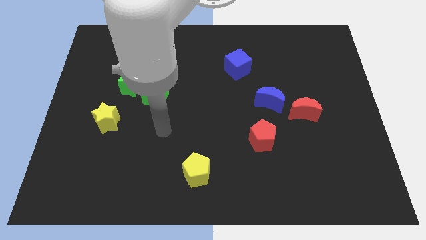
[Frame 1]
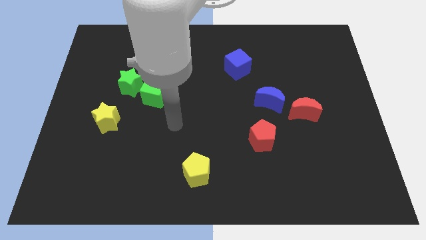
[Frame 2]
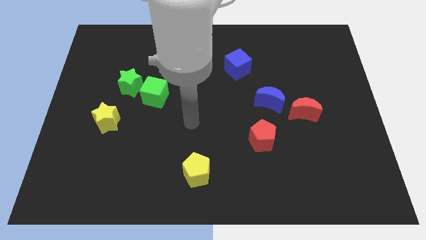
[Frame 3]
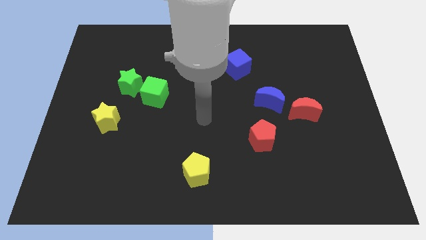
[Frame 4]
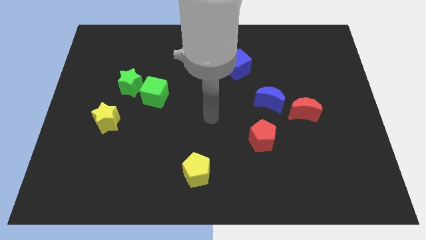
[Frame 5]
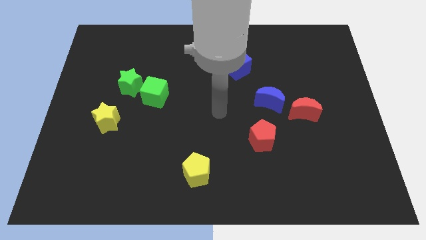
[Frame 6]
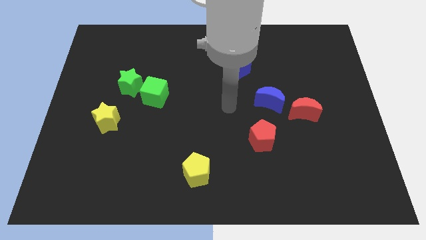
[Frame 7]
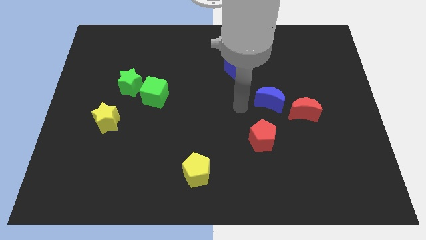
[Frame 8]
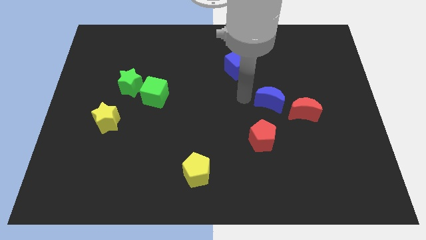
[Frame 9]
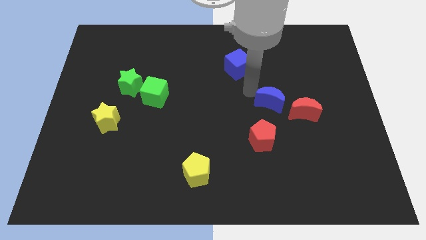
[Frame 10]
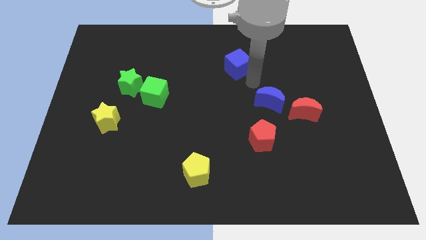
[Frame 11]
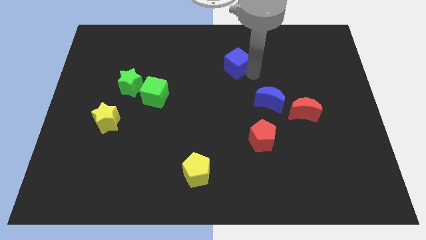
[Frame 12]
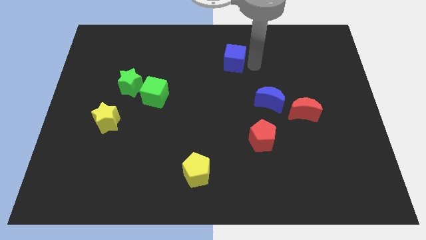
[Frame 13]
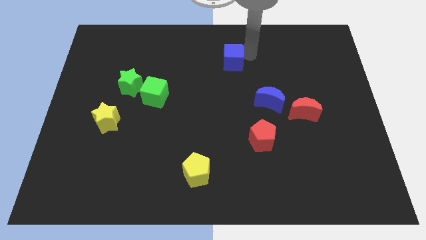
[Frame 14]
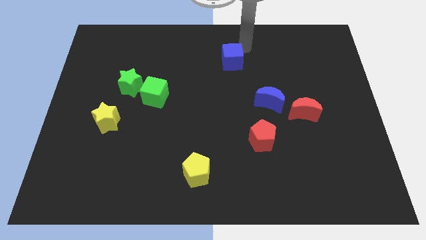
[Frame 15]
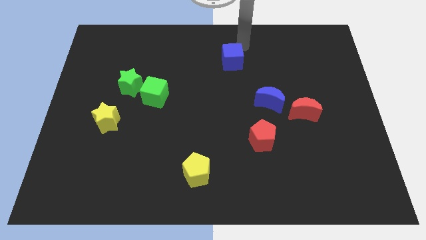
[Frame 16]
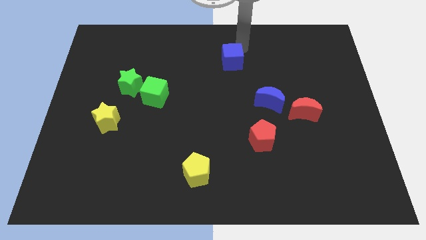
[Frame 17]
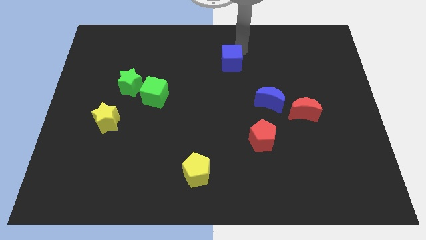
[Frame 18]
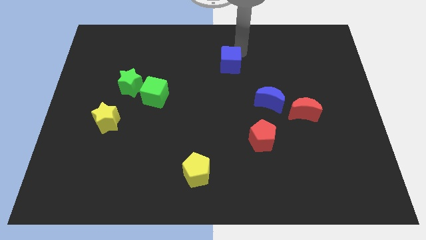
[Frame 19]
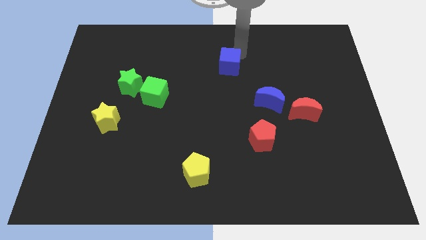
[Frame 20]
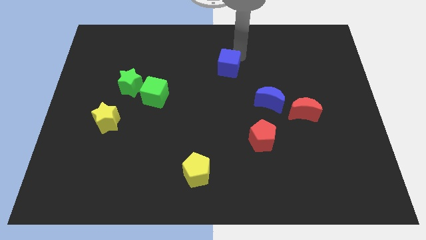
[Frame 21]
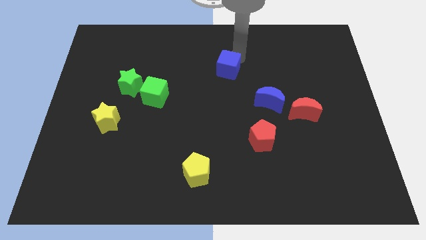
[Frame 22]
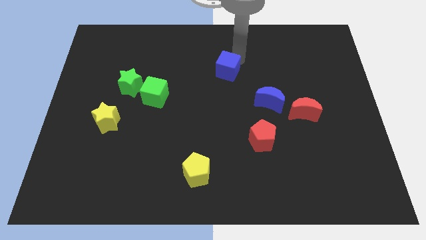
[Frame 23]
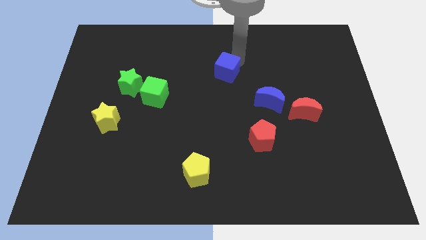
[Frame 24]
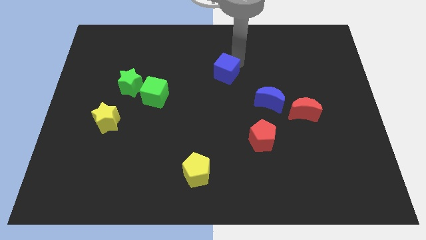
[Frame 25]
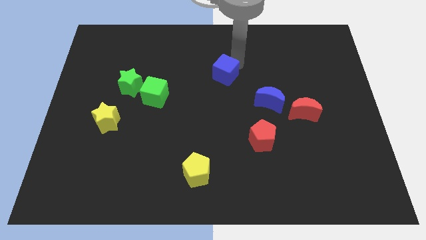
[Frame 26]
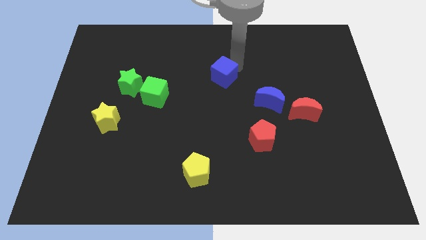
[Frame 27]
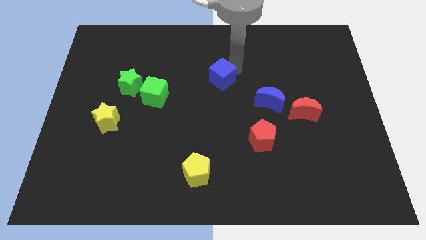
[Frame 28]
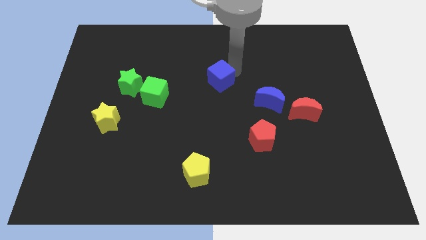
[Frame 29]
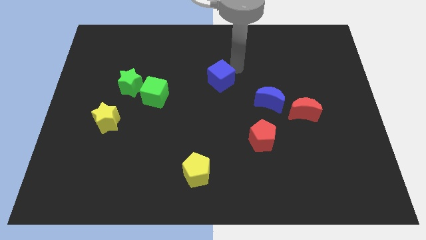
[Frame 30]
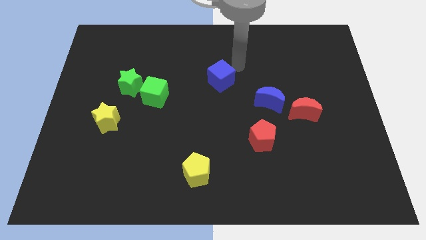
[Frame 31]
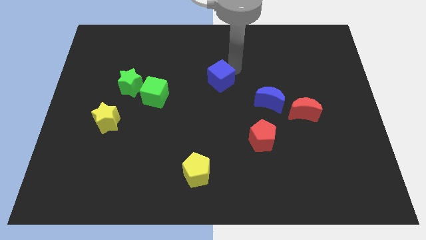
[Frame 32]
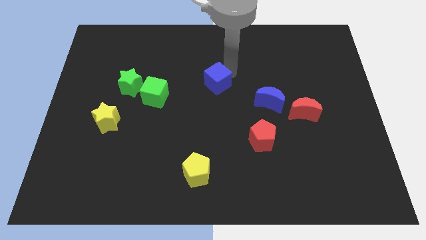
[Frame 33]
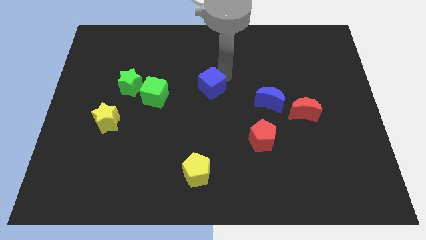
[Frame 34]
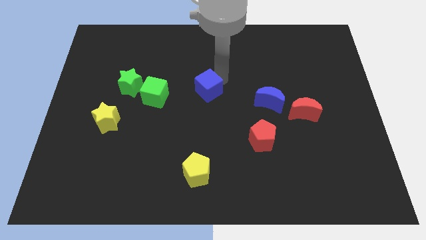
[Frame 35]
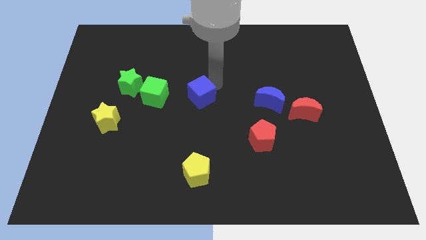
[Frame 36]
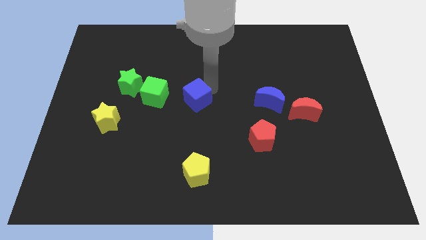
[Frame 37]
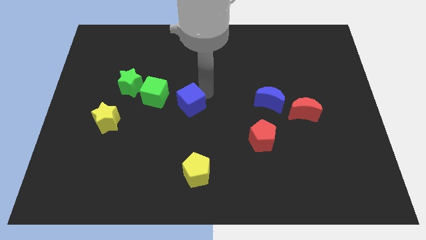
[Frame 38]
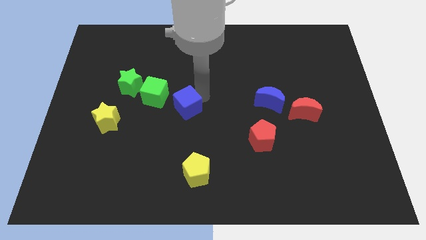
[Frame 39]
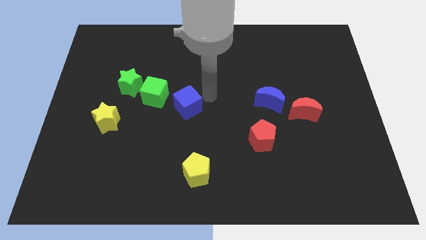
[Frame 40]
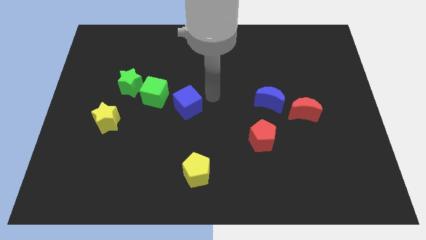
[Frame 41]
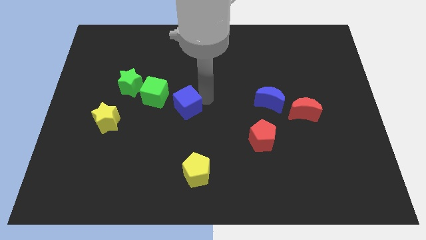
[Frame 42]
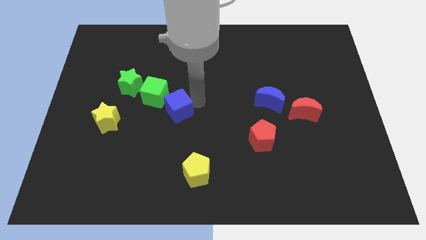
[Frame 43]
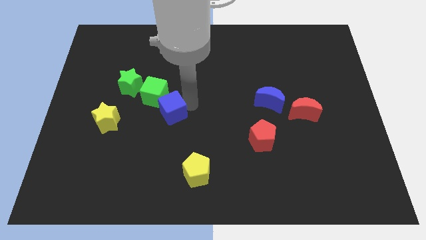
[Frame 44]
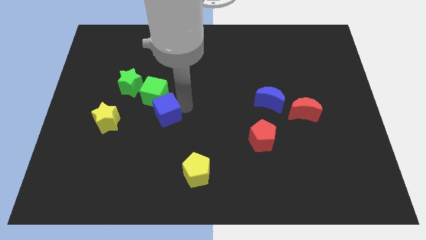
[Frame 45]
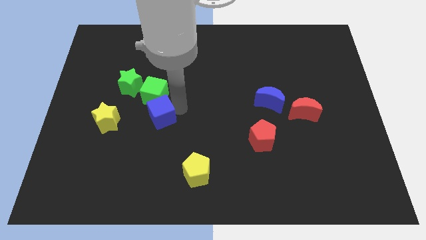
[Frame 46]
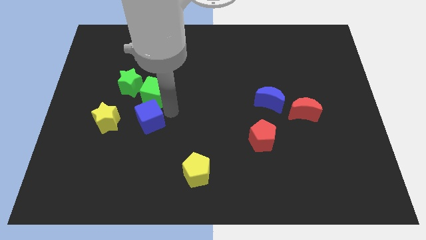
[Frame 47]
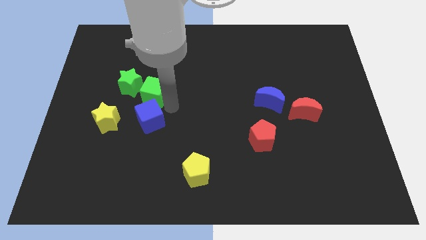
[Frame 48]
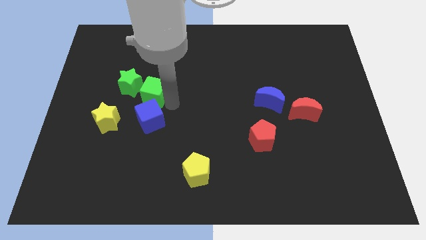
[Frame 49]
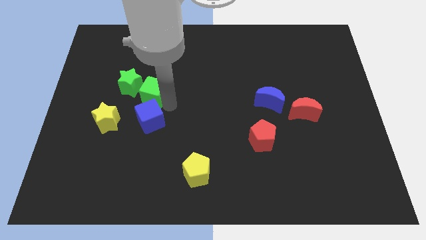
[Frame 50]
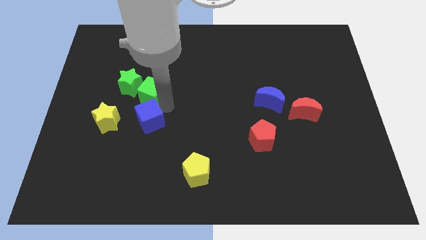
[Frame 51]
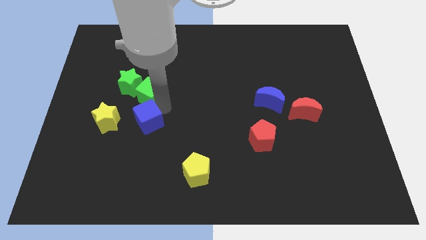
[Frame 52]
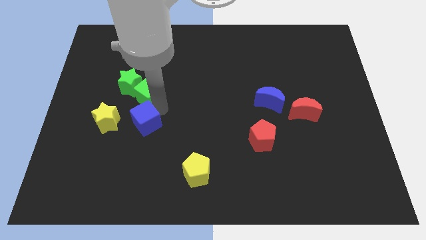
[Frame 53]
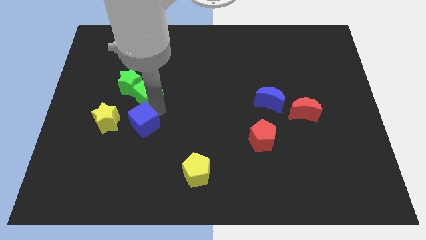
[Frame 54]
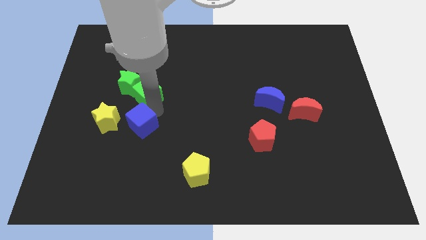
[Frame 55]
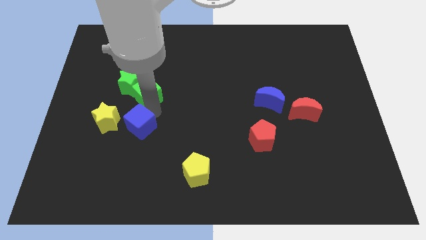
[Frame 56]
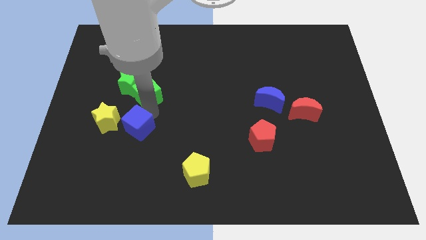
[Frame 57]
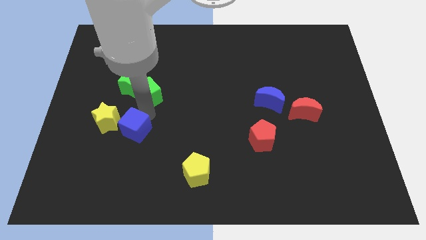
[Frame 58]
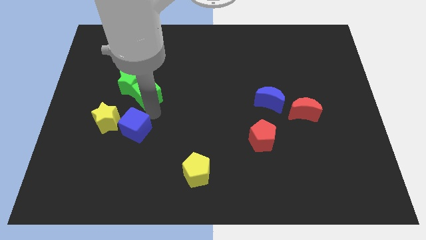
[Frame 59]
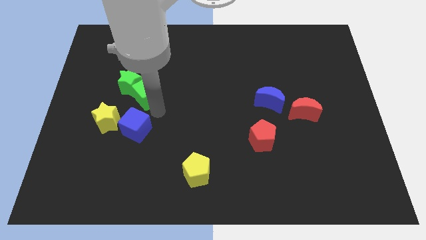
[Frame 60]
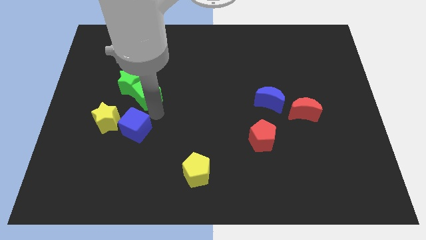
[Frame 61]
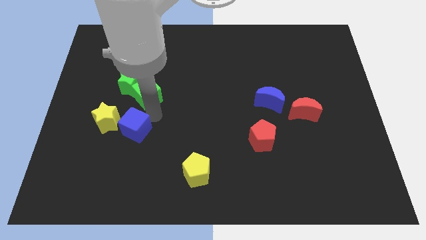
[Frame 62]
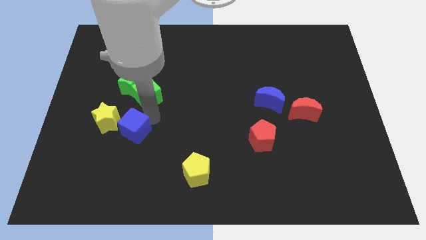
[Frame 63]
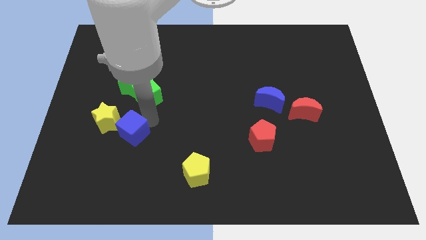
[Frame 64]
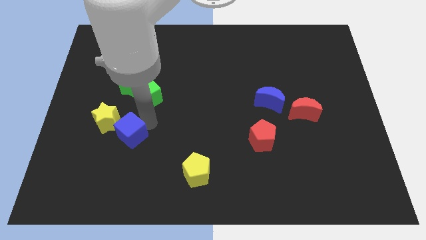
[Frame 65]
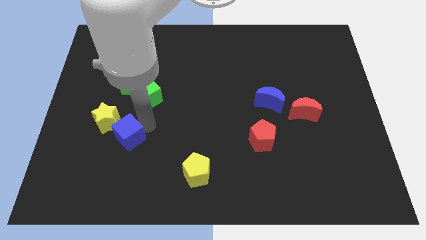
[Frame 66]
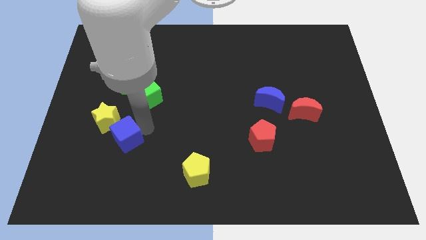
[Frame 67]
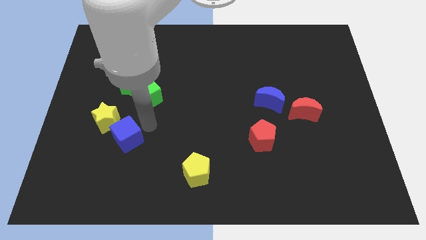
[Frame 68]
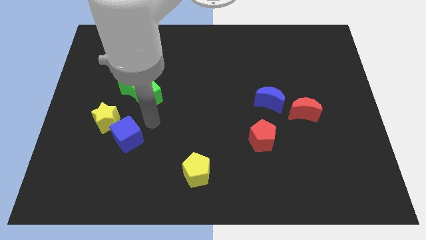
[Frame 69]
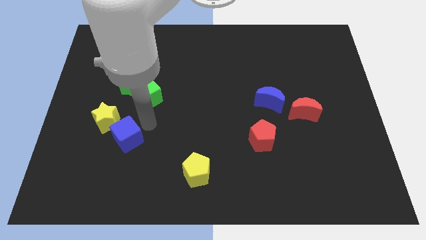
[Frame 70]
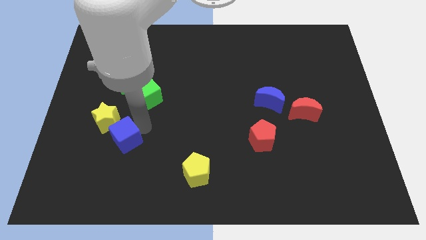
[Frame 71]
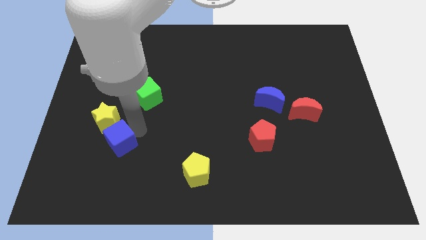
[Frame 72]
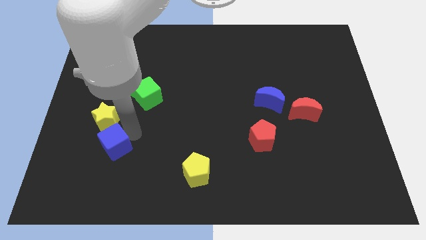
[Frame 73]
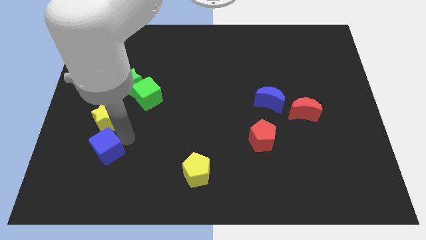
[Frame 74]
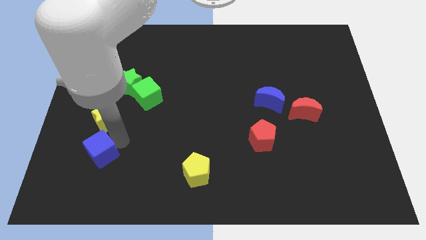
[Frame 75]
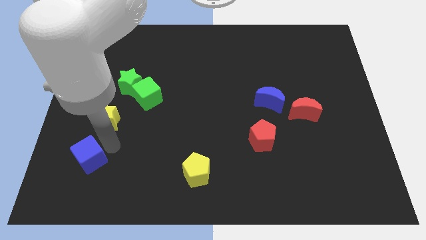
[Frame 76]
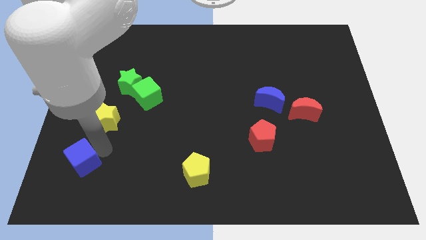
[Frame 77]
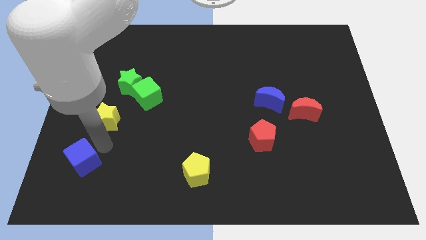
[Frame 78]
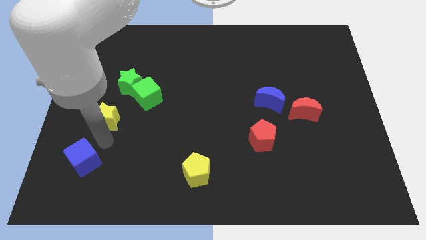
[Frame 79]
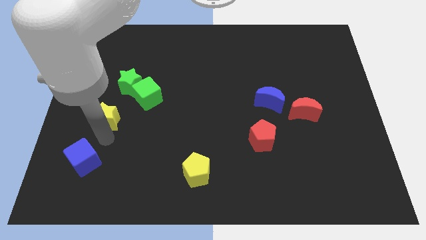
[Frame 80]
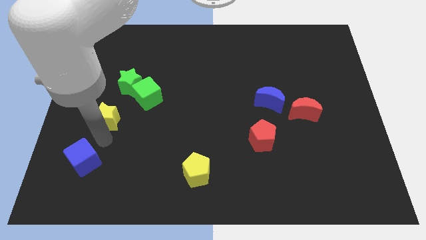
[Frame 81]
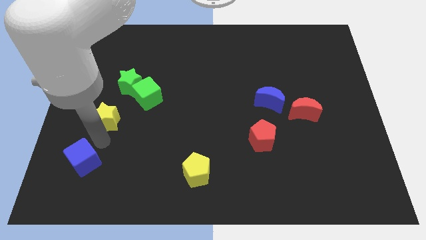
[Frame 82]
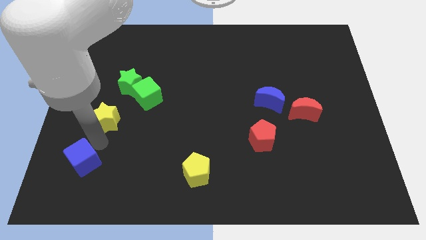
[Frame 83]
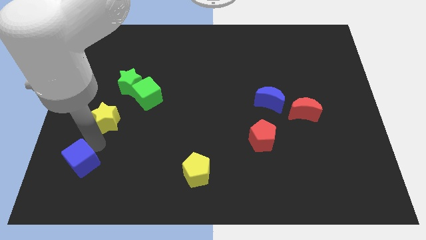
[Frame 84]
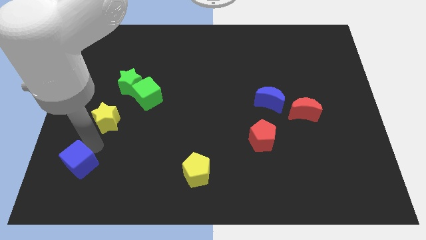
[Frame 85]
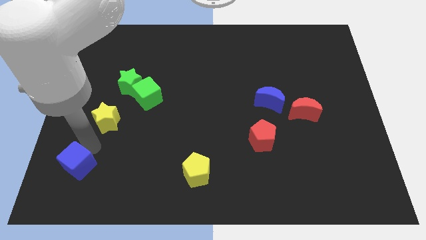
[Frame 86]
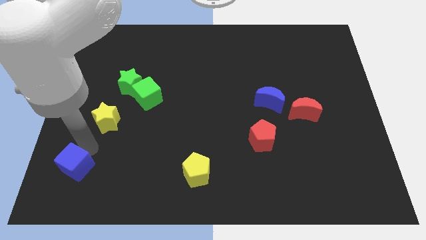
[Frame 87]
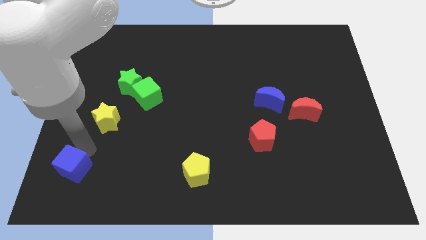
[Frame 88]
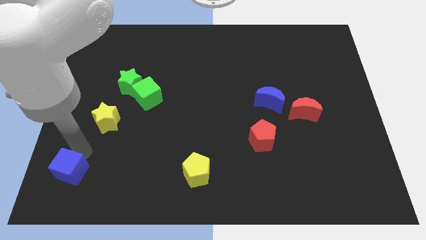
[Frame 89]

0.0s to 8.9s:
put the blue cube to the bottom left of the board
